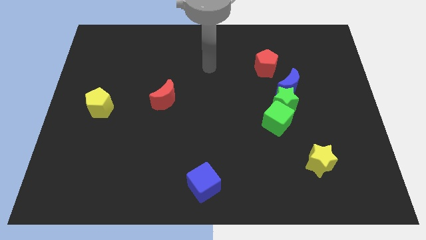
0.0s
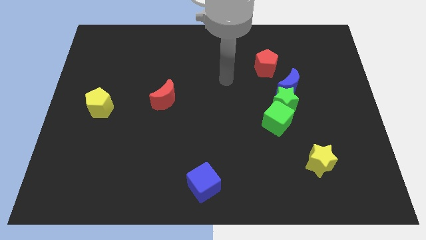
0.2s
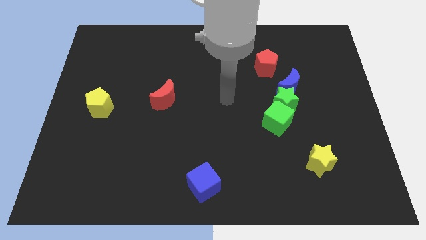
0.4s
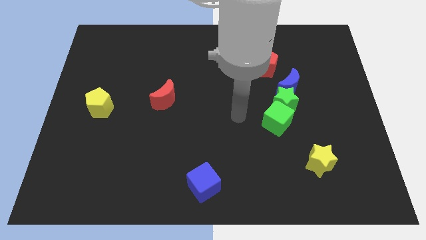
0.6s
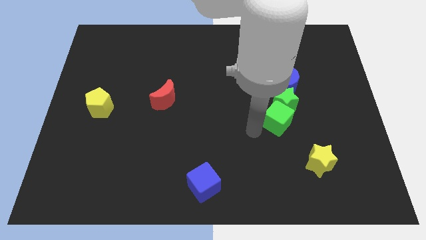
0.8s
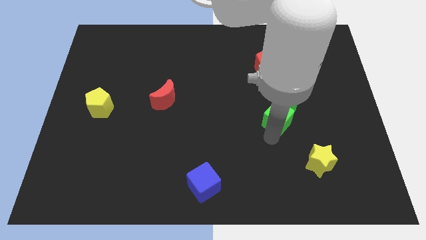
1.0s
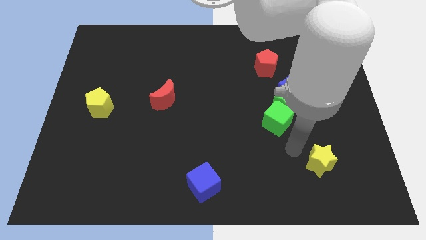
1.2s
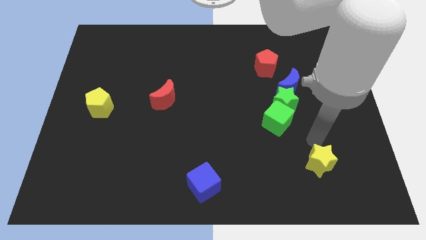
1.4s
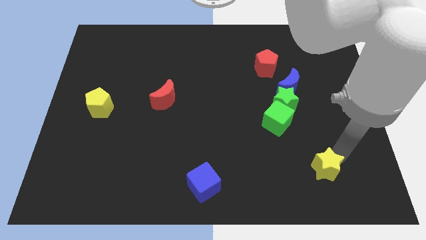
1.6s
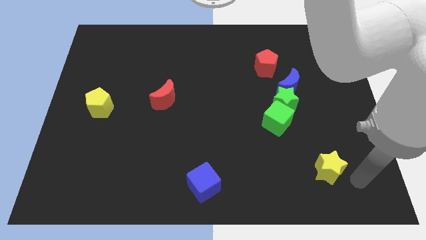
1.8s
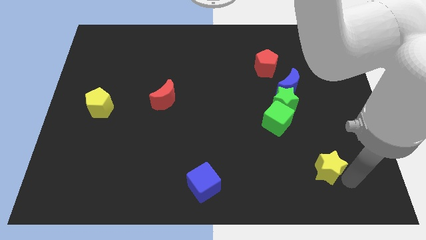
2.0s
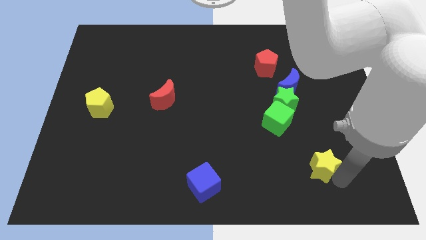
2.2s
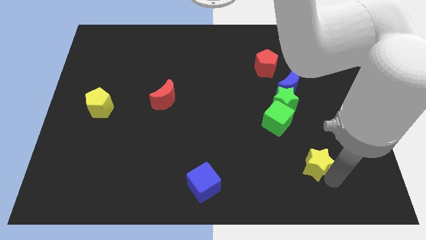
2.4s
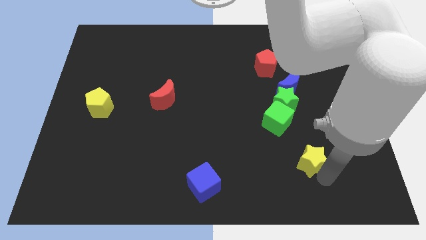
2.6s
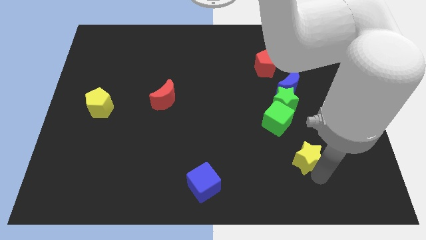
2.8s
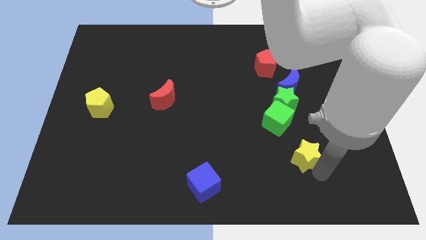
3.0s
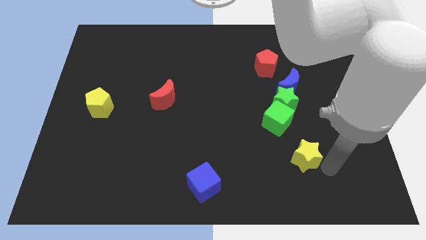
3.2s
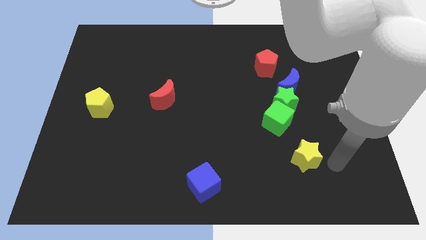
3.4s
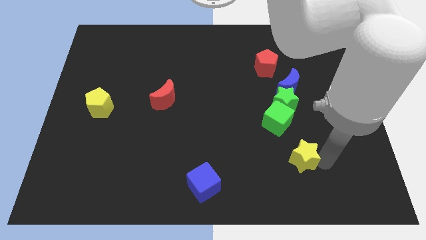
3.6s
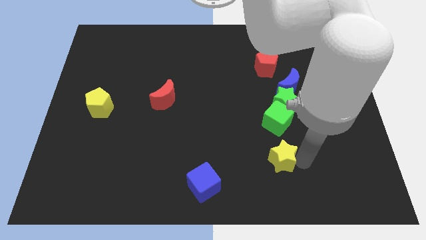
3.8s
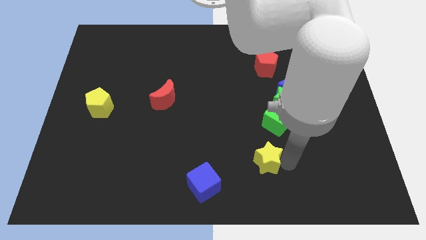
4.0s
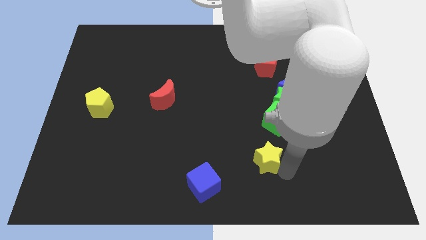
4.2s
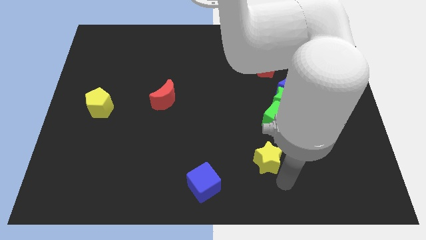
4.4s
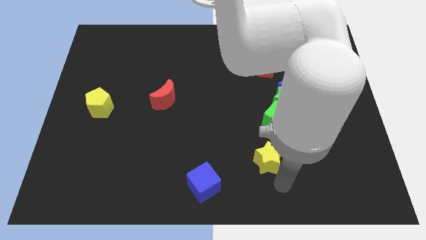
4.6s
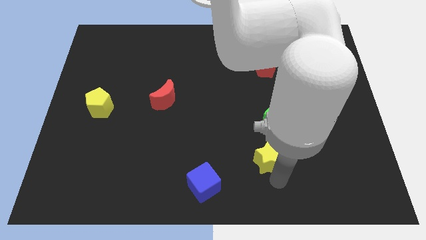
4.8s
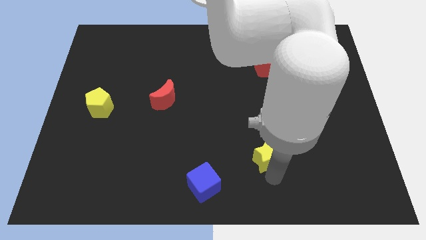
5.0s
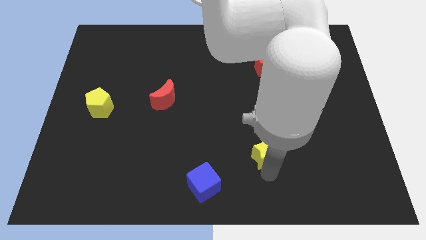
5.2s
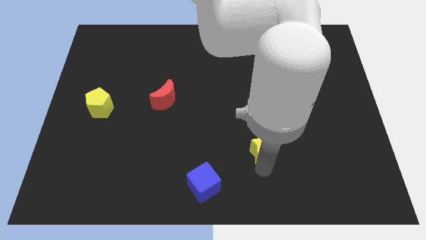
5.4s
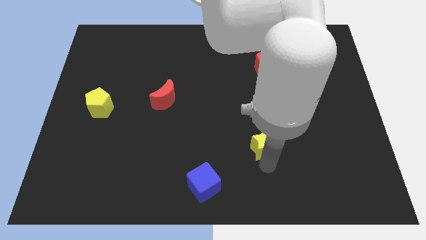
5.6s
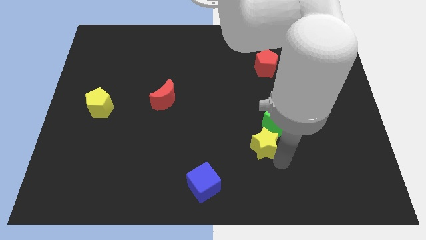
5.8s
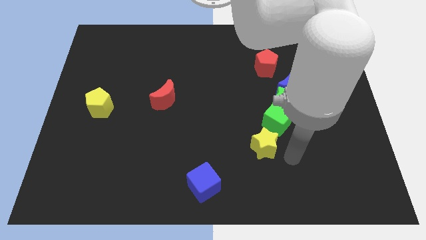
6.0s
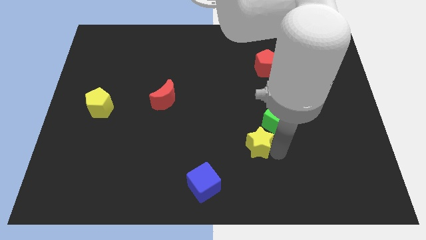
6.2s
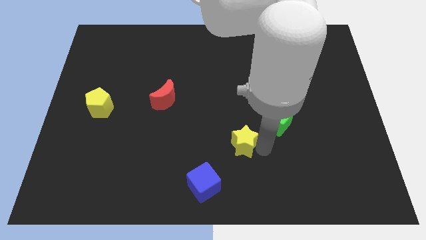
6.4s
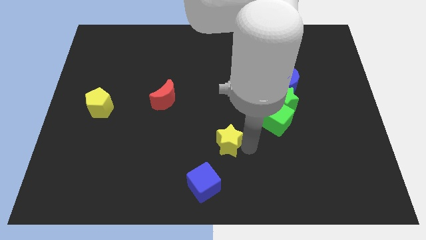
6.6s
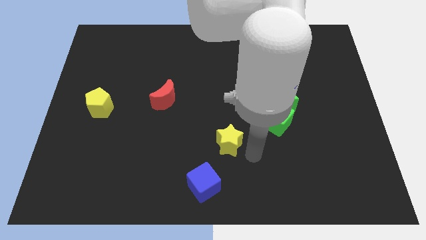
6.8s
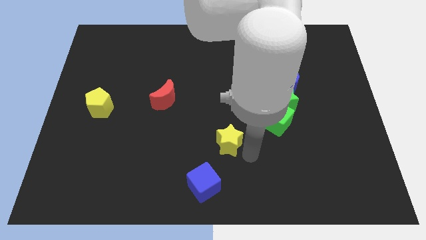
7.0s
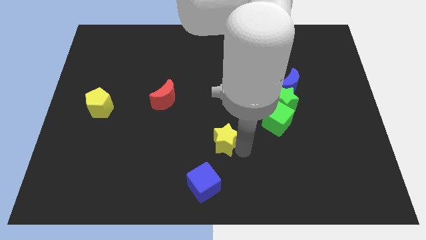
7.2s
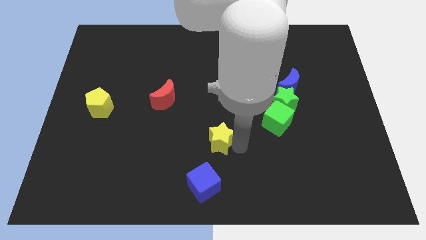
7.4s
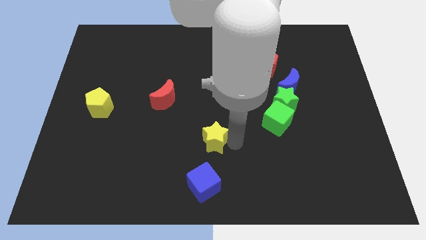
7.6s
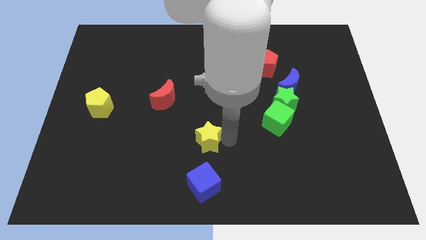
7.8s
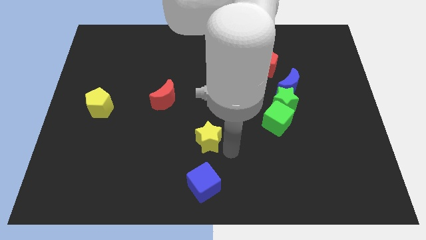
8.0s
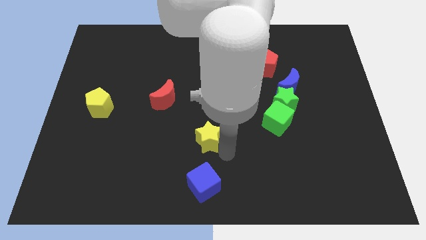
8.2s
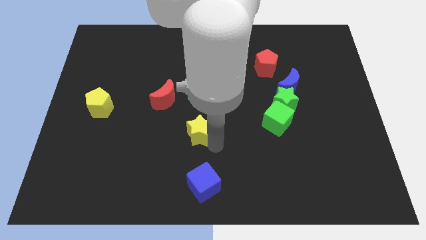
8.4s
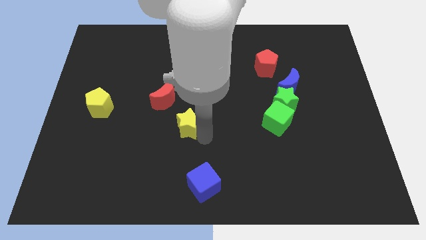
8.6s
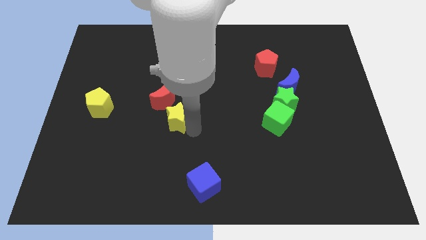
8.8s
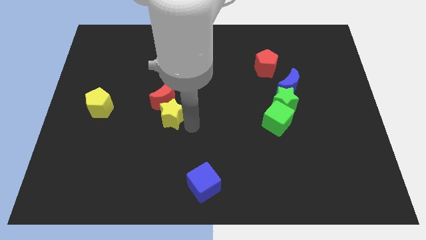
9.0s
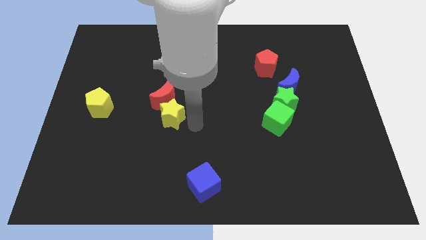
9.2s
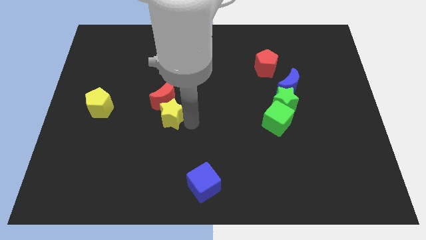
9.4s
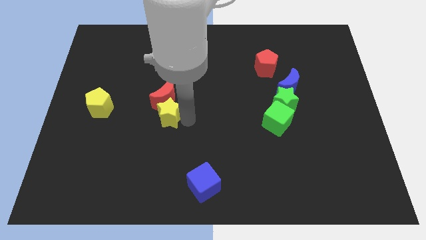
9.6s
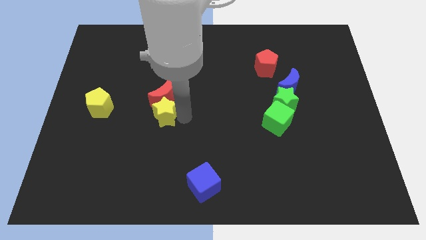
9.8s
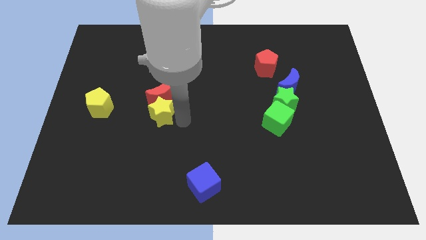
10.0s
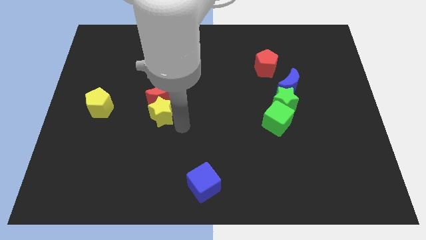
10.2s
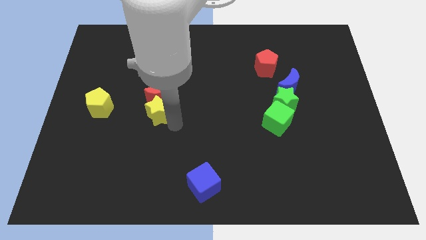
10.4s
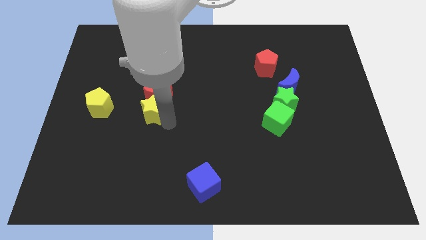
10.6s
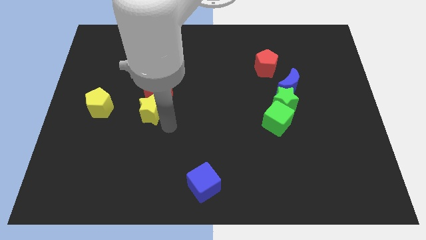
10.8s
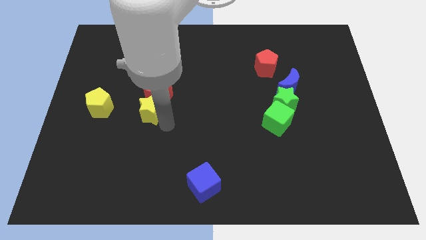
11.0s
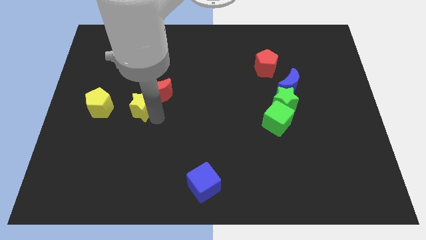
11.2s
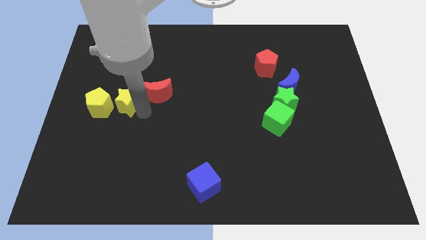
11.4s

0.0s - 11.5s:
put the yellow star diagonally up and to the right of the yellow pentagon
